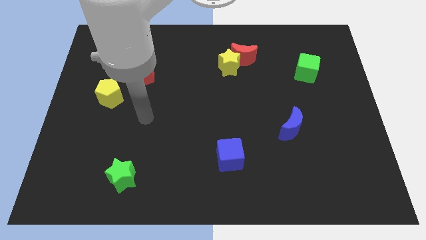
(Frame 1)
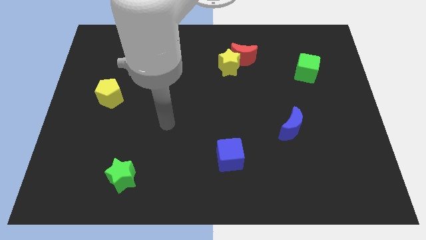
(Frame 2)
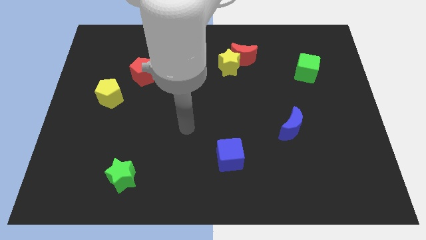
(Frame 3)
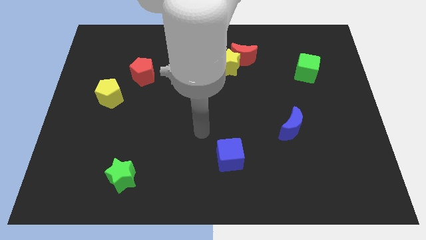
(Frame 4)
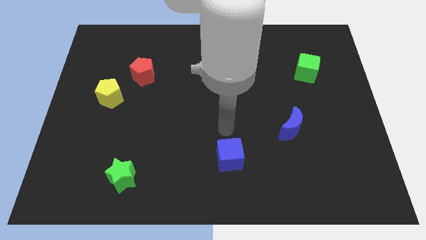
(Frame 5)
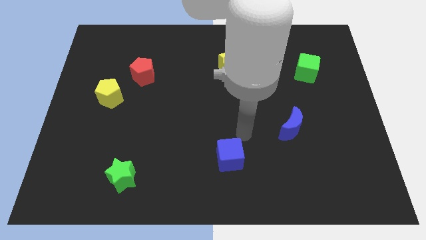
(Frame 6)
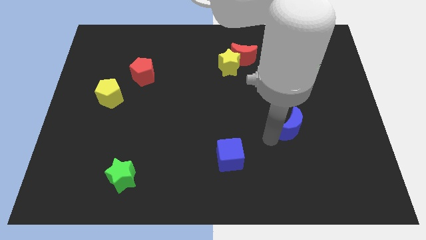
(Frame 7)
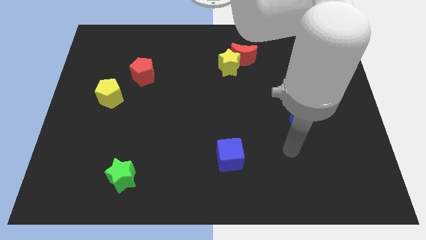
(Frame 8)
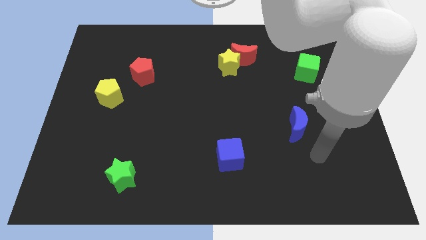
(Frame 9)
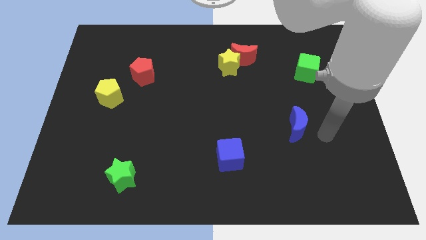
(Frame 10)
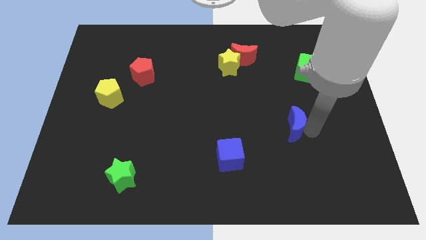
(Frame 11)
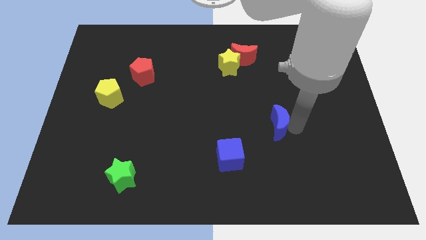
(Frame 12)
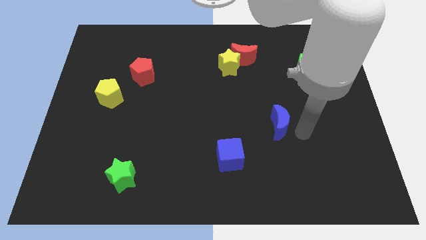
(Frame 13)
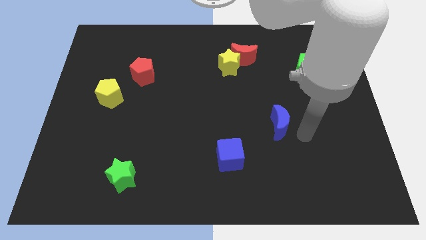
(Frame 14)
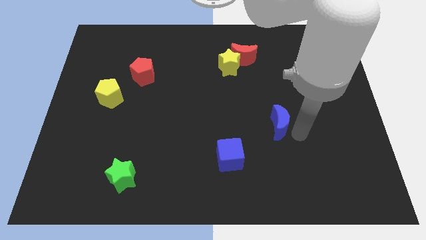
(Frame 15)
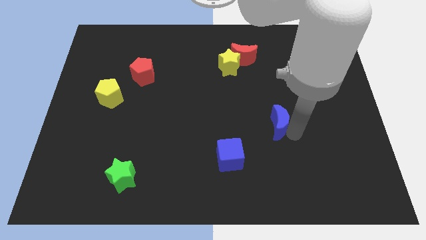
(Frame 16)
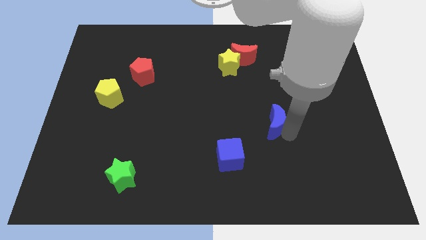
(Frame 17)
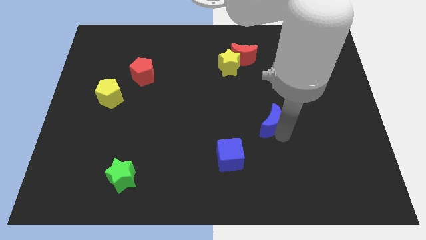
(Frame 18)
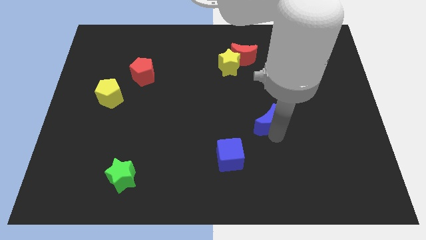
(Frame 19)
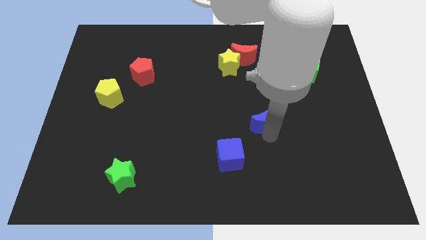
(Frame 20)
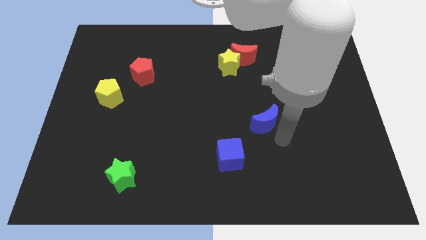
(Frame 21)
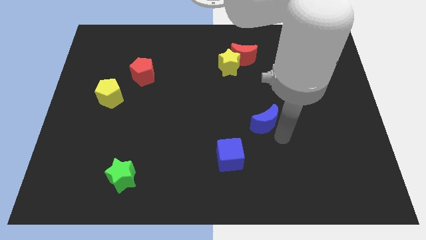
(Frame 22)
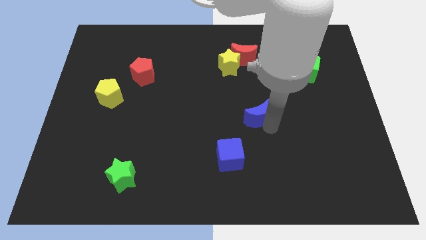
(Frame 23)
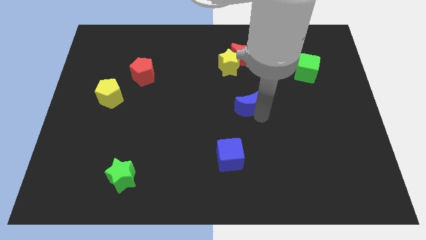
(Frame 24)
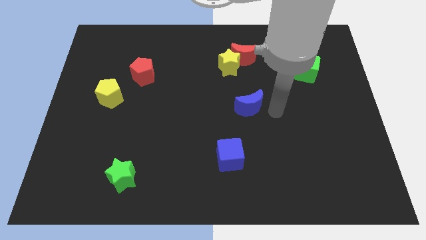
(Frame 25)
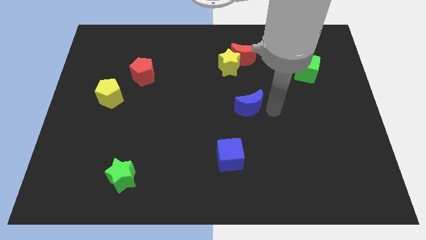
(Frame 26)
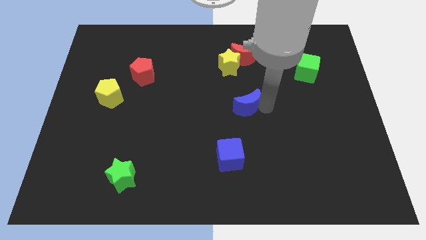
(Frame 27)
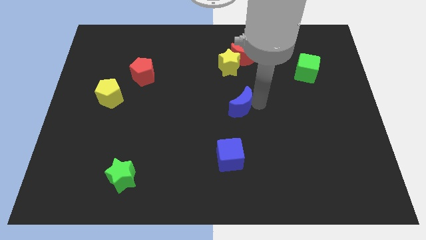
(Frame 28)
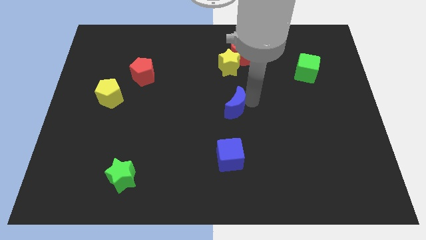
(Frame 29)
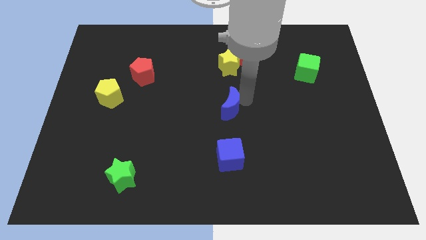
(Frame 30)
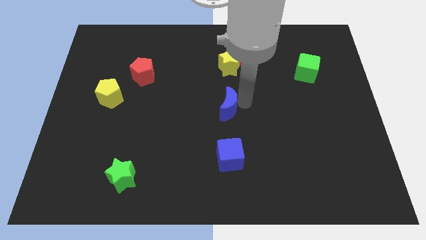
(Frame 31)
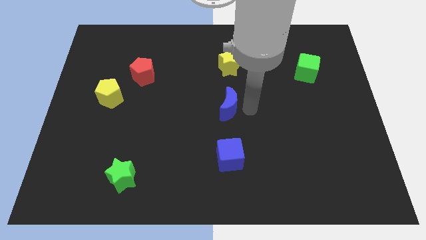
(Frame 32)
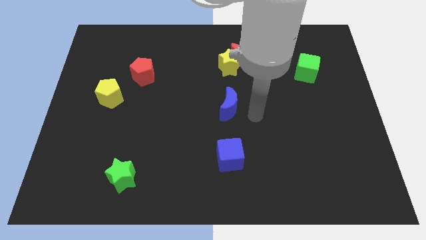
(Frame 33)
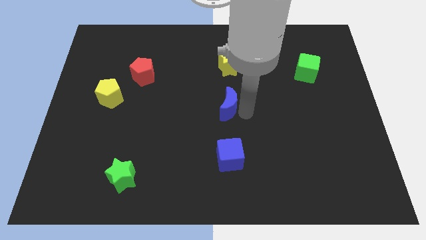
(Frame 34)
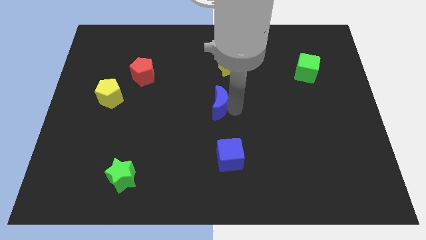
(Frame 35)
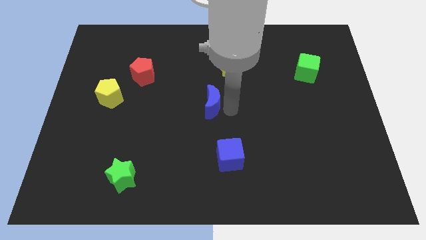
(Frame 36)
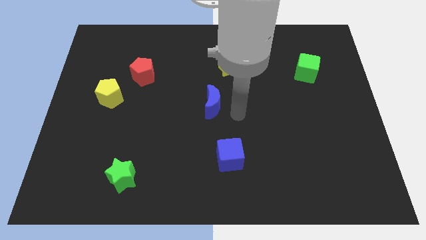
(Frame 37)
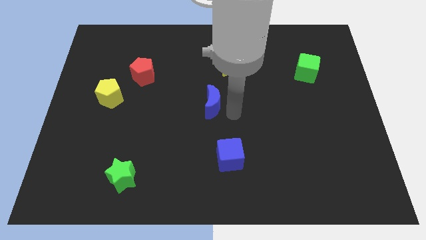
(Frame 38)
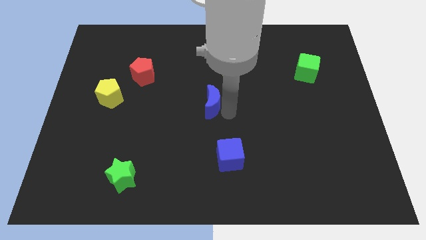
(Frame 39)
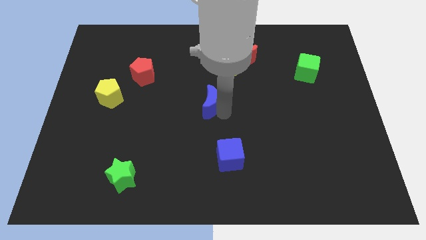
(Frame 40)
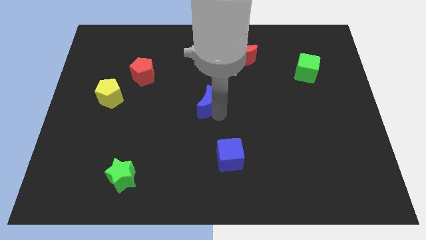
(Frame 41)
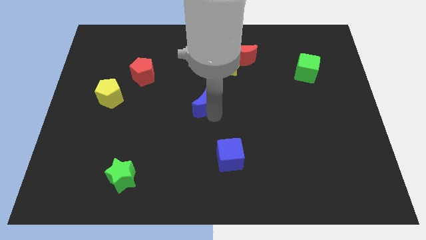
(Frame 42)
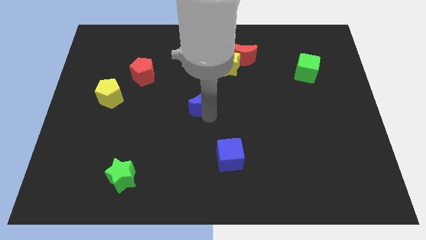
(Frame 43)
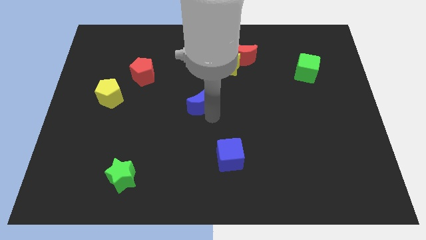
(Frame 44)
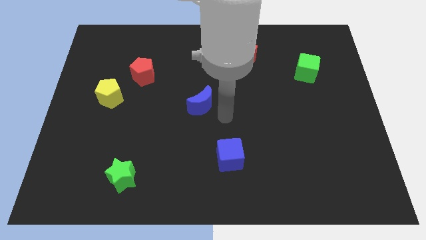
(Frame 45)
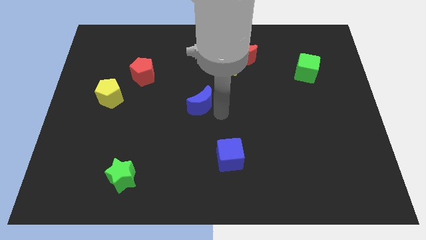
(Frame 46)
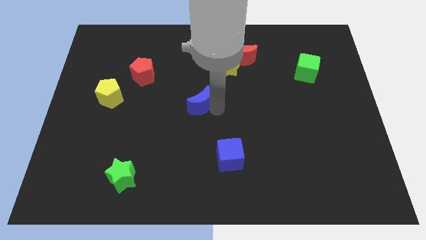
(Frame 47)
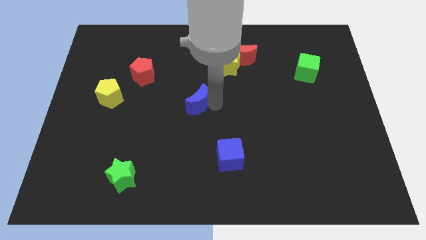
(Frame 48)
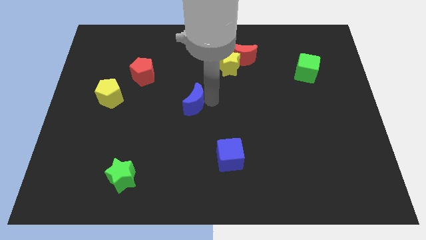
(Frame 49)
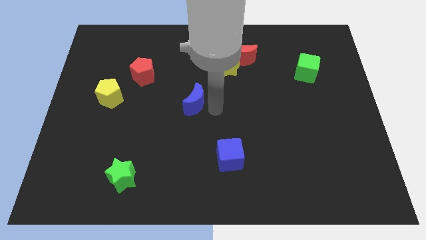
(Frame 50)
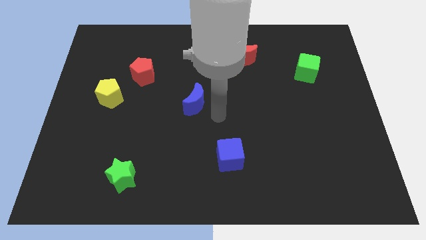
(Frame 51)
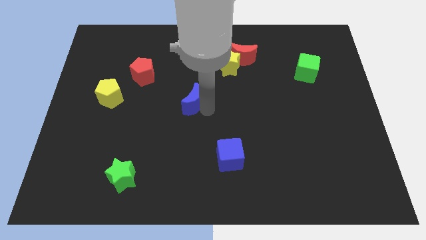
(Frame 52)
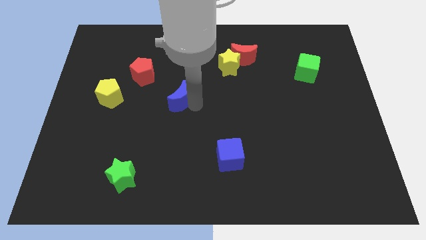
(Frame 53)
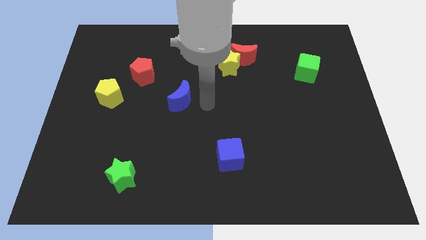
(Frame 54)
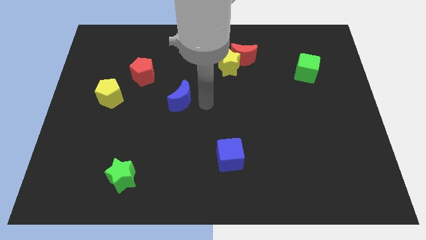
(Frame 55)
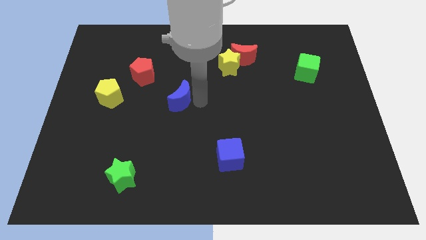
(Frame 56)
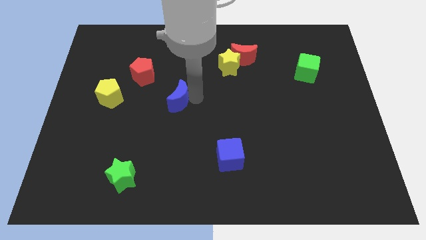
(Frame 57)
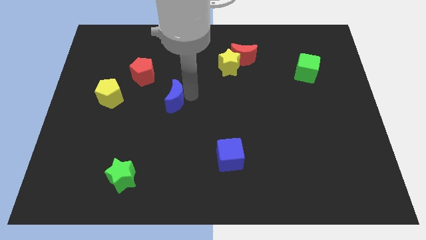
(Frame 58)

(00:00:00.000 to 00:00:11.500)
put the blue moon right of the yellow pentagon

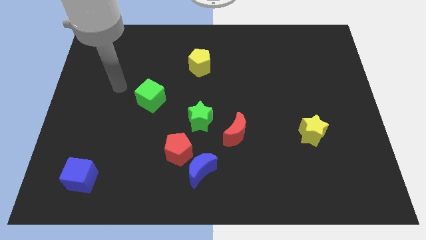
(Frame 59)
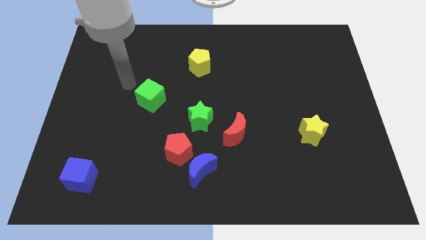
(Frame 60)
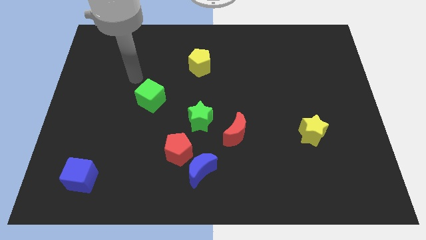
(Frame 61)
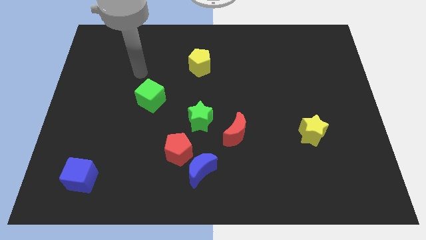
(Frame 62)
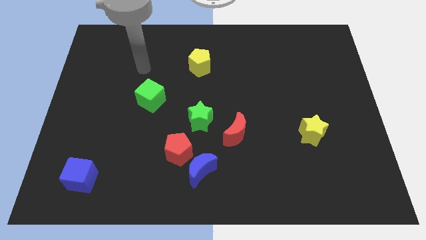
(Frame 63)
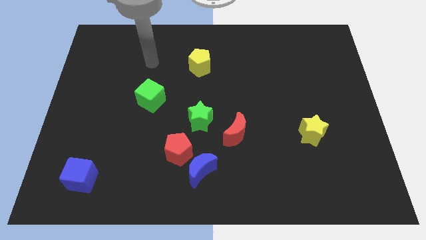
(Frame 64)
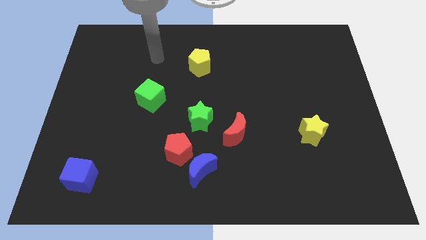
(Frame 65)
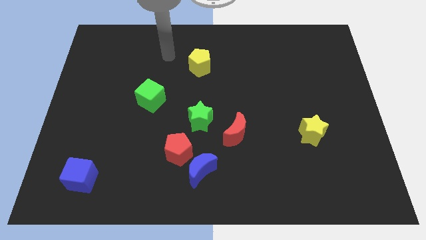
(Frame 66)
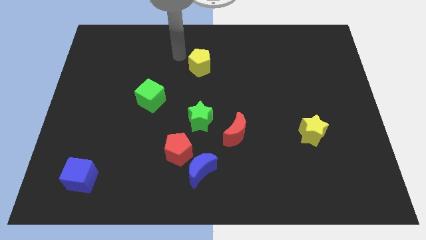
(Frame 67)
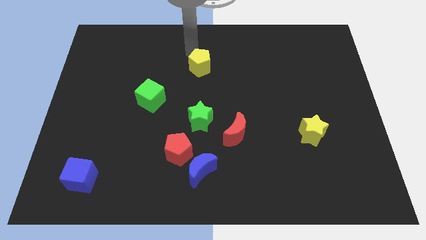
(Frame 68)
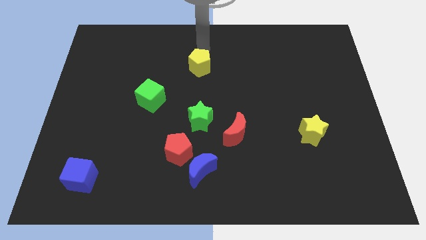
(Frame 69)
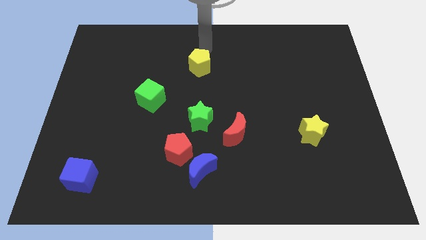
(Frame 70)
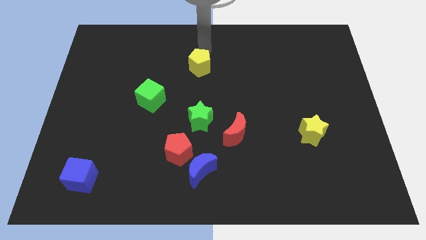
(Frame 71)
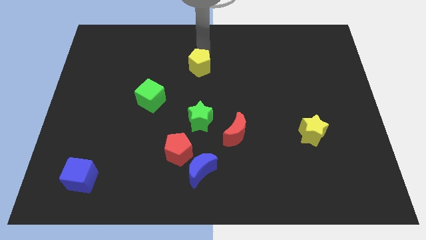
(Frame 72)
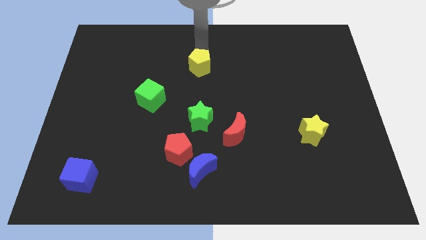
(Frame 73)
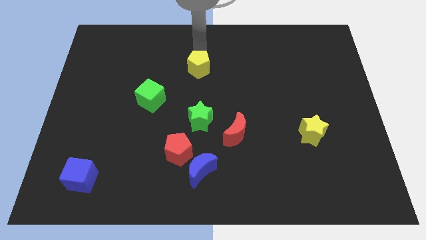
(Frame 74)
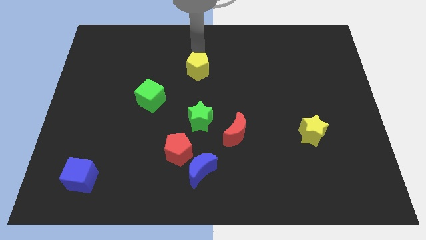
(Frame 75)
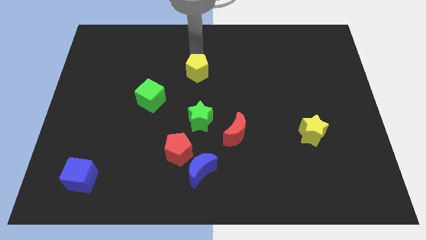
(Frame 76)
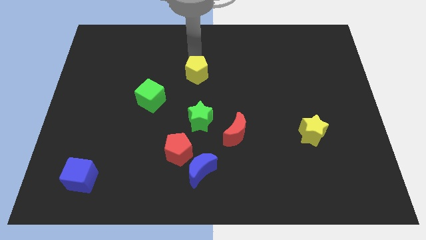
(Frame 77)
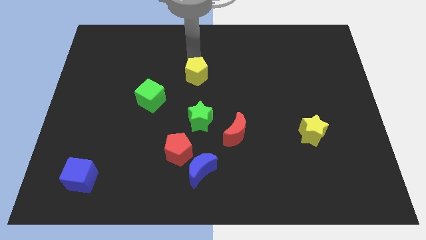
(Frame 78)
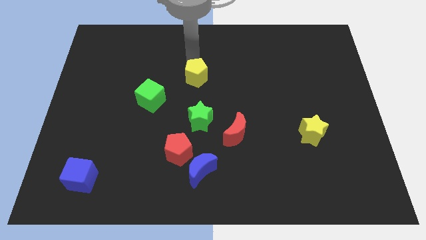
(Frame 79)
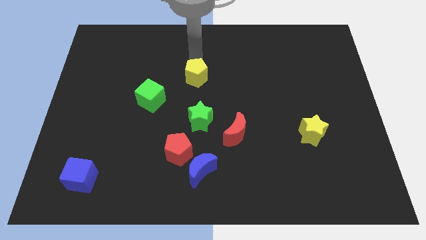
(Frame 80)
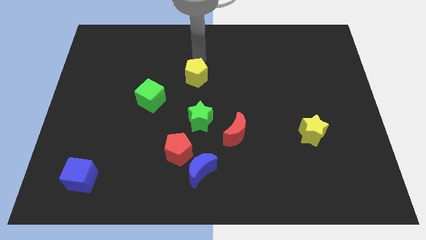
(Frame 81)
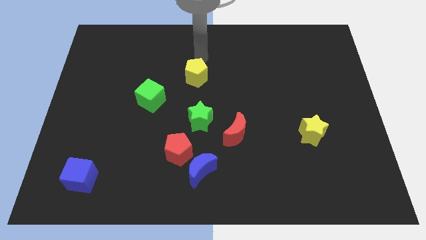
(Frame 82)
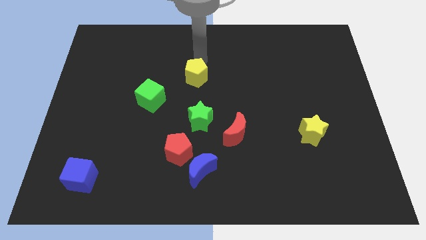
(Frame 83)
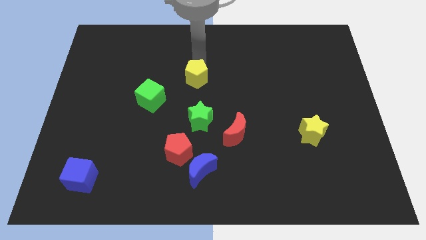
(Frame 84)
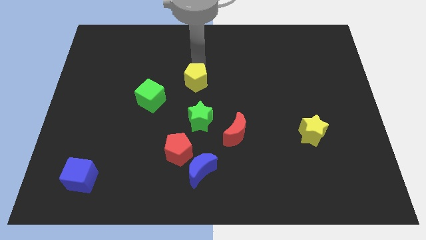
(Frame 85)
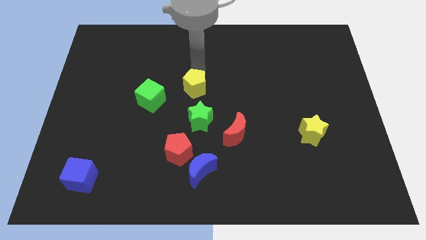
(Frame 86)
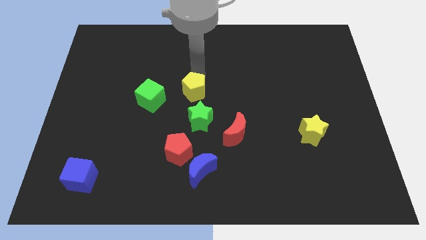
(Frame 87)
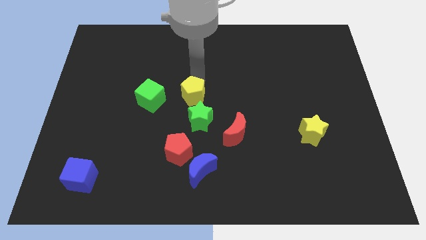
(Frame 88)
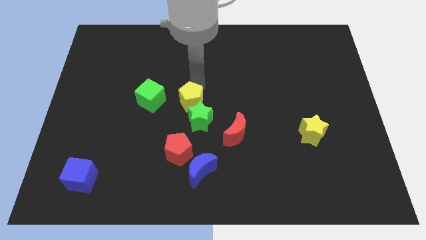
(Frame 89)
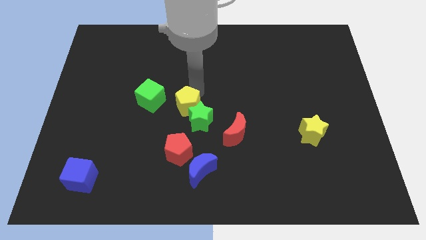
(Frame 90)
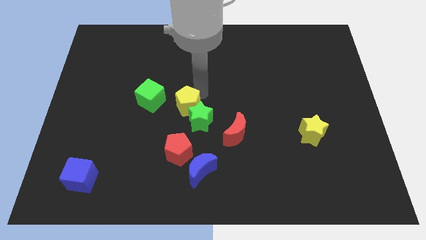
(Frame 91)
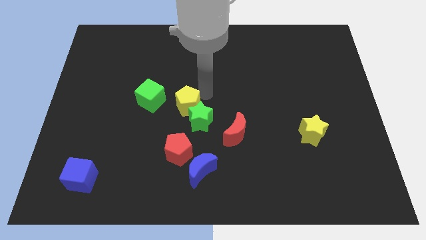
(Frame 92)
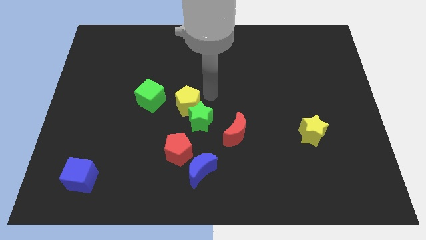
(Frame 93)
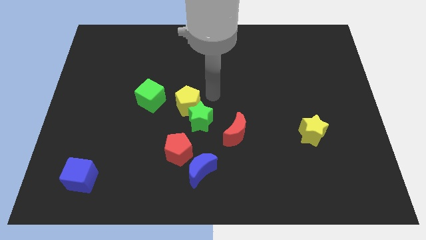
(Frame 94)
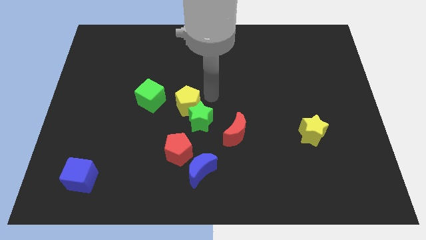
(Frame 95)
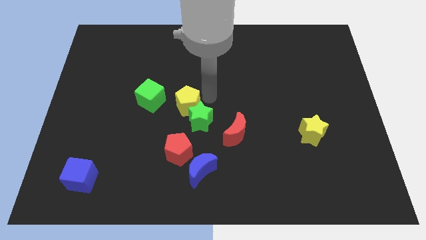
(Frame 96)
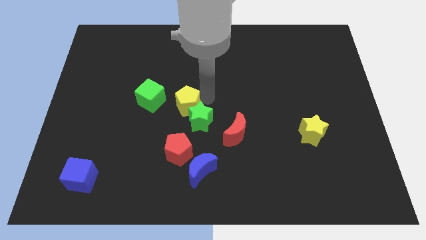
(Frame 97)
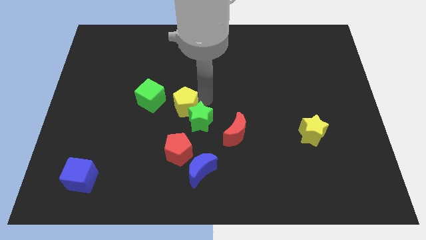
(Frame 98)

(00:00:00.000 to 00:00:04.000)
slide the yellow pentagon left of the green star
